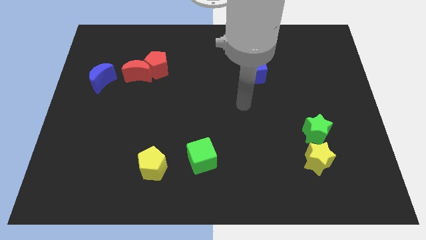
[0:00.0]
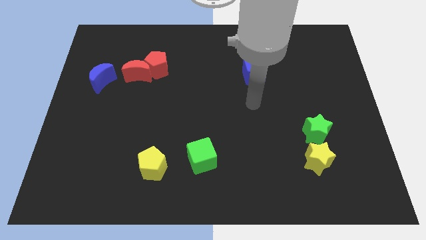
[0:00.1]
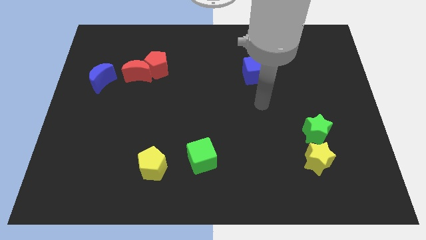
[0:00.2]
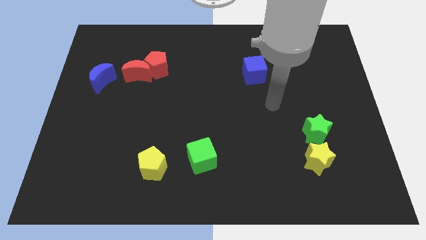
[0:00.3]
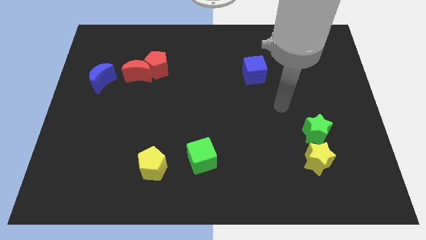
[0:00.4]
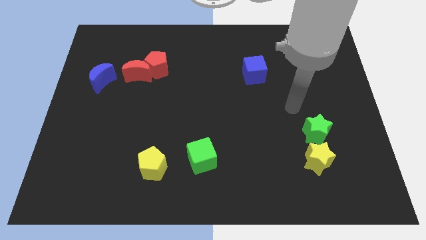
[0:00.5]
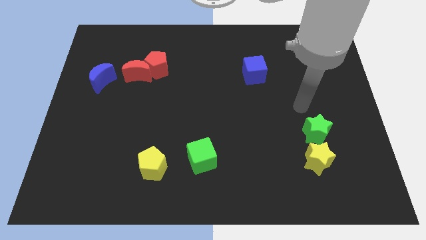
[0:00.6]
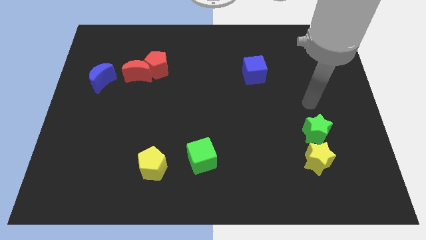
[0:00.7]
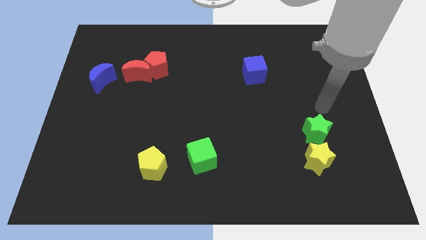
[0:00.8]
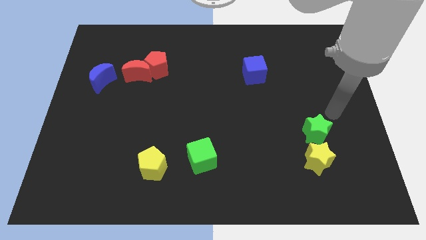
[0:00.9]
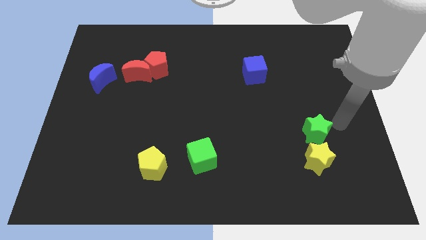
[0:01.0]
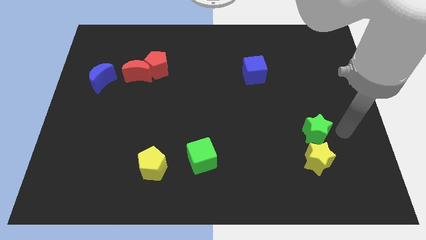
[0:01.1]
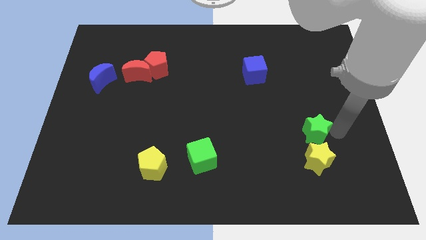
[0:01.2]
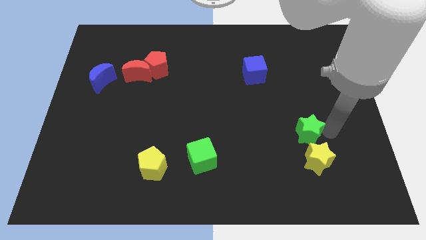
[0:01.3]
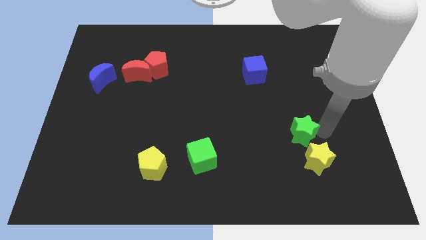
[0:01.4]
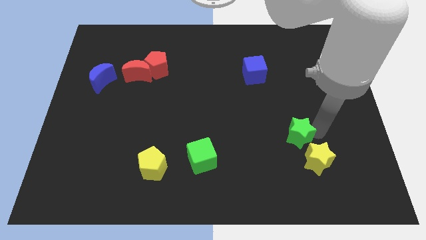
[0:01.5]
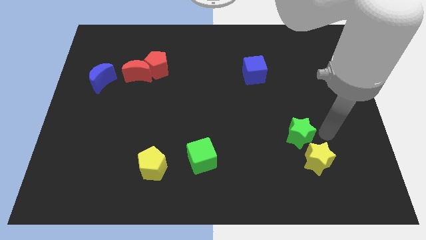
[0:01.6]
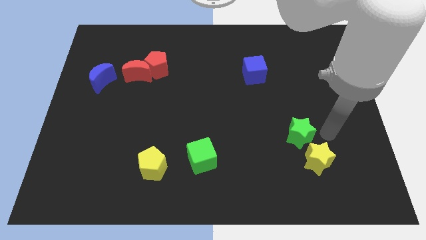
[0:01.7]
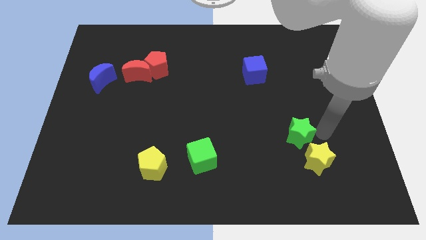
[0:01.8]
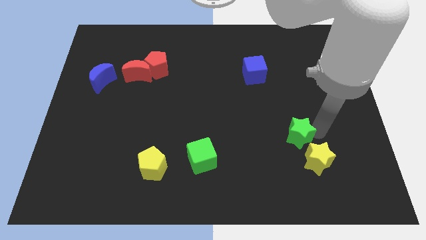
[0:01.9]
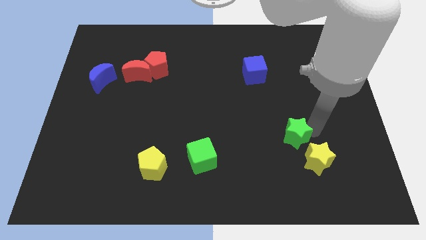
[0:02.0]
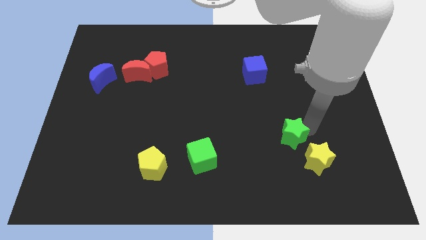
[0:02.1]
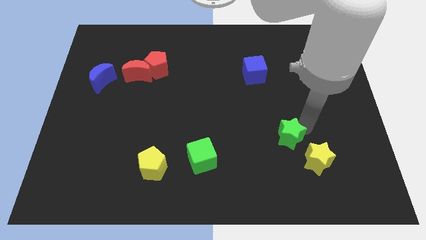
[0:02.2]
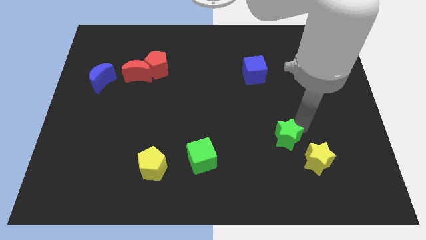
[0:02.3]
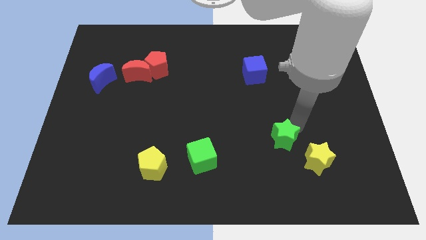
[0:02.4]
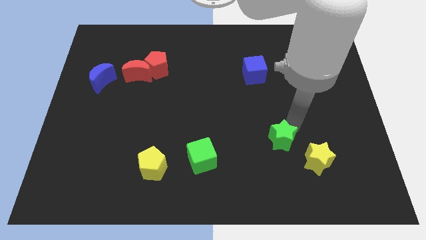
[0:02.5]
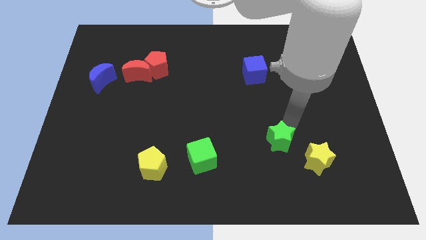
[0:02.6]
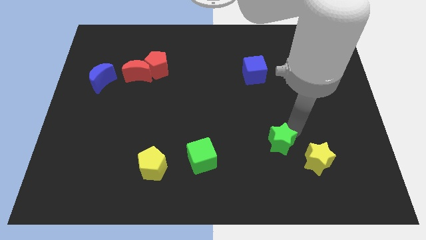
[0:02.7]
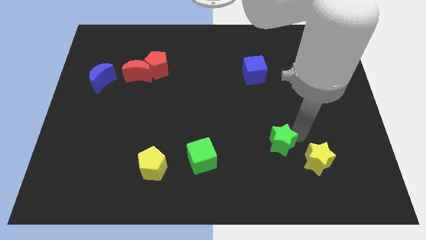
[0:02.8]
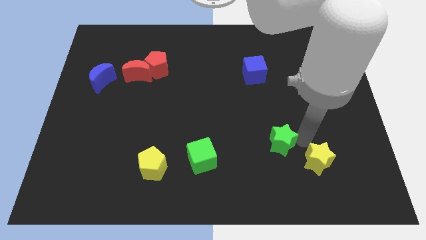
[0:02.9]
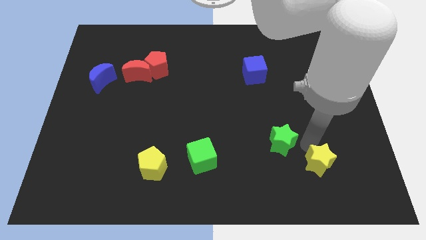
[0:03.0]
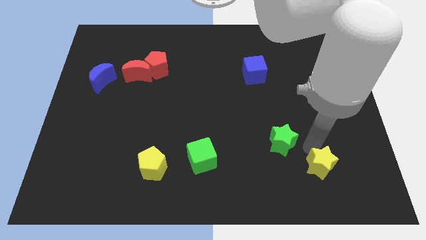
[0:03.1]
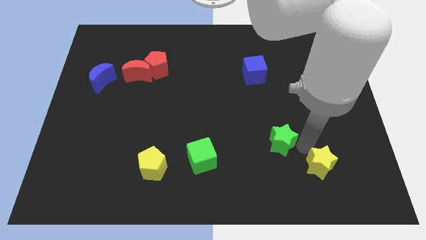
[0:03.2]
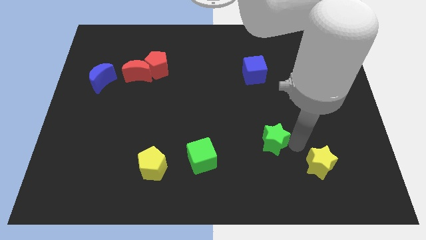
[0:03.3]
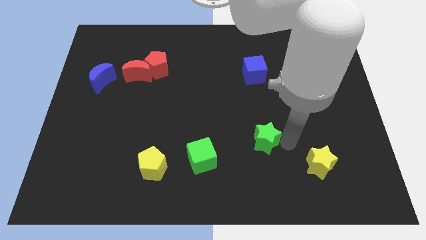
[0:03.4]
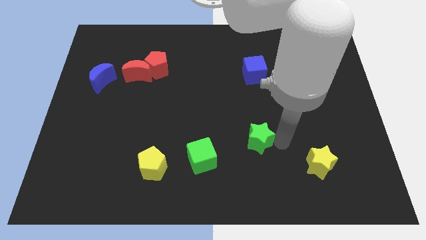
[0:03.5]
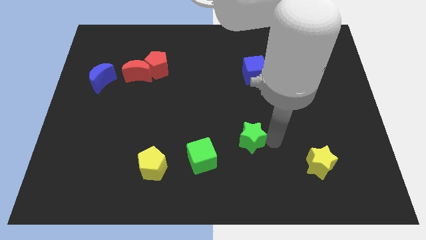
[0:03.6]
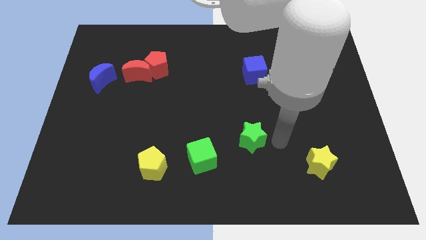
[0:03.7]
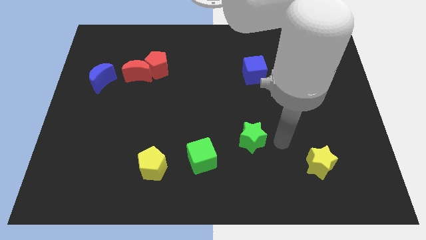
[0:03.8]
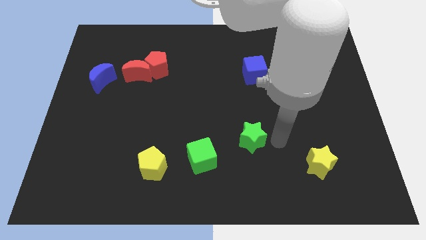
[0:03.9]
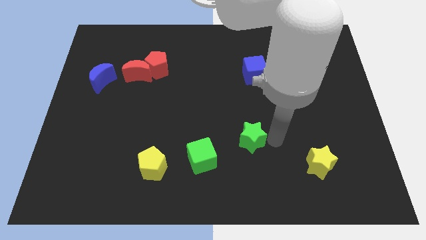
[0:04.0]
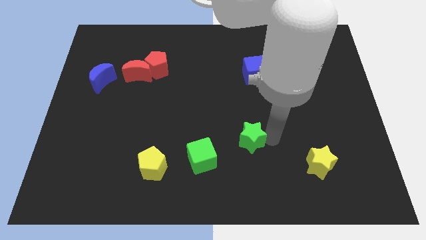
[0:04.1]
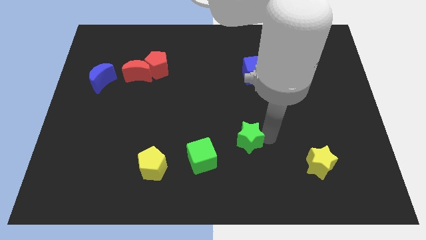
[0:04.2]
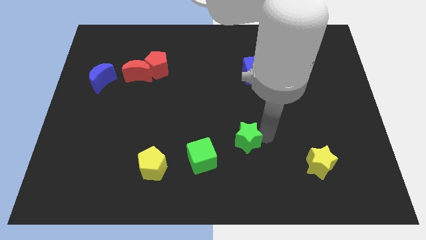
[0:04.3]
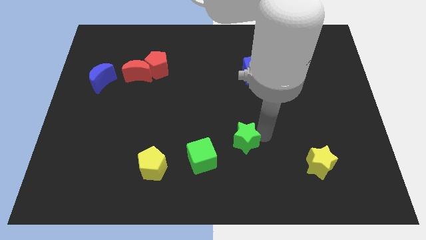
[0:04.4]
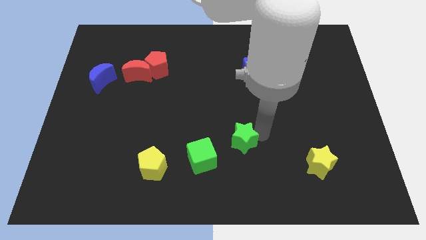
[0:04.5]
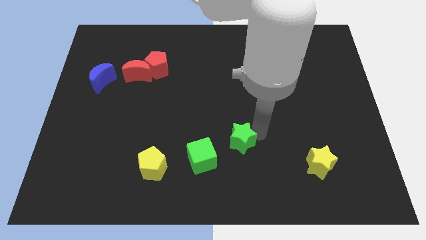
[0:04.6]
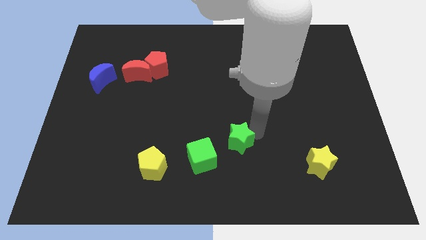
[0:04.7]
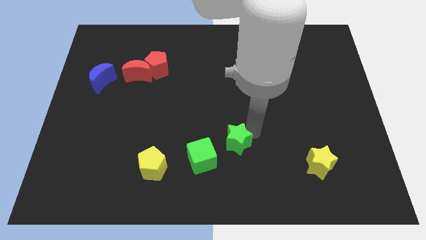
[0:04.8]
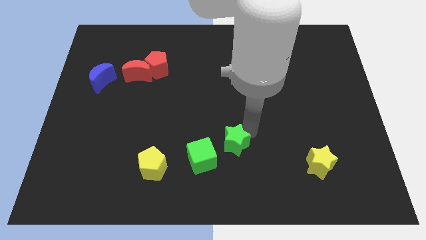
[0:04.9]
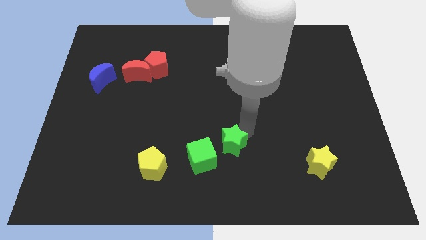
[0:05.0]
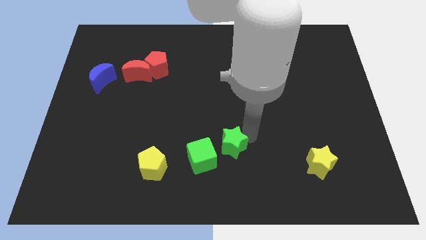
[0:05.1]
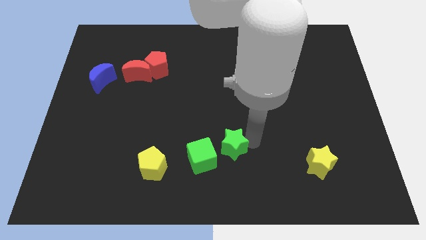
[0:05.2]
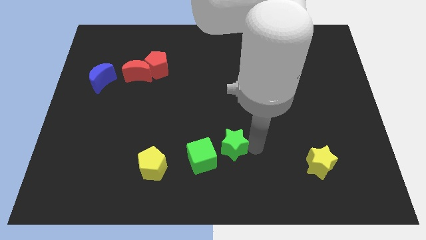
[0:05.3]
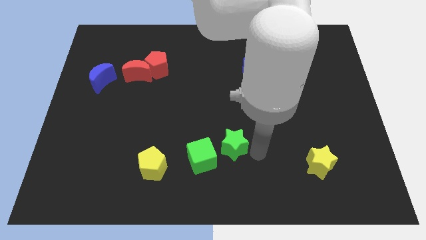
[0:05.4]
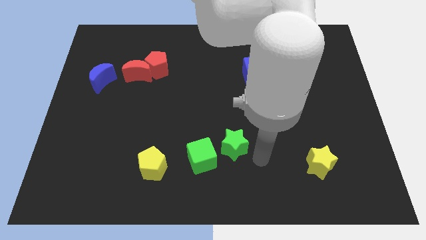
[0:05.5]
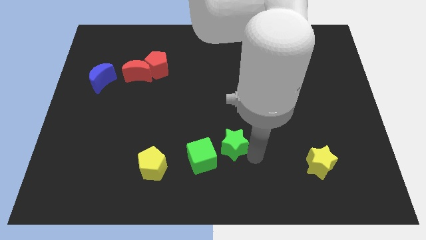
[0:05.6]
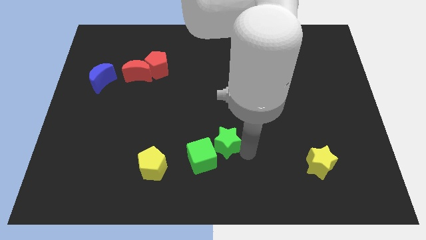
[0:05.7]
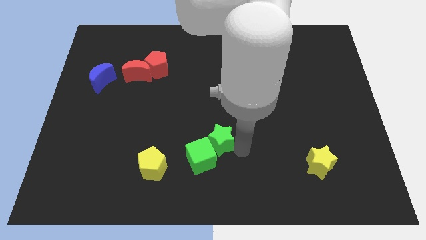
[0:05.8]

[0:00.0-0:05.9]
slide the green star left

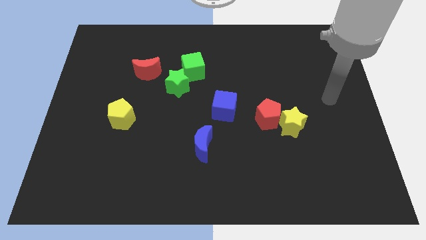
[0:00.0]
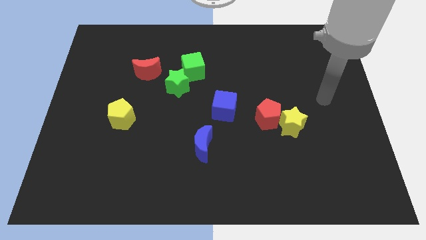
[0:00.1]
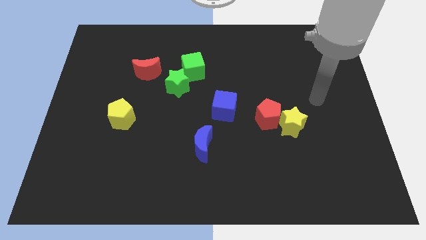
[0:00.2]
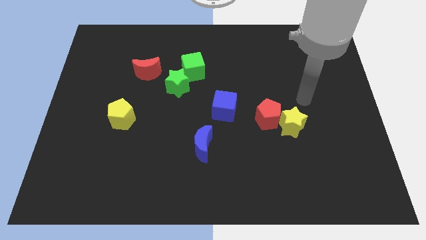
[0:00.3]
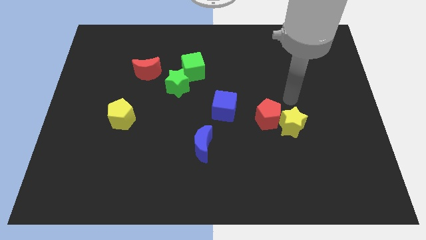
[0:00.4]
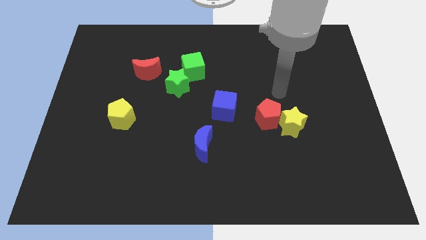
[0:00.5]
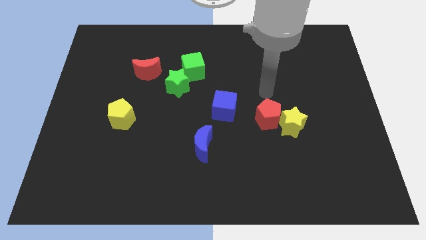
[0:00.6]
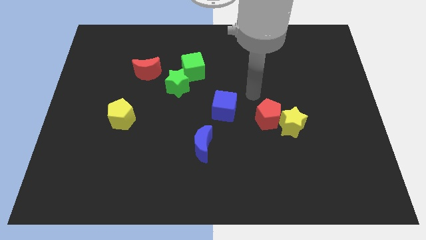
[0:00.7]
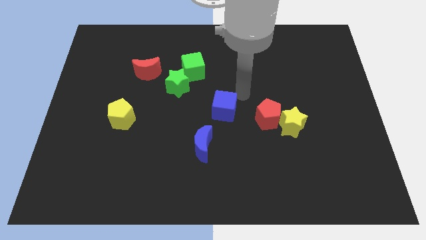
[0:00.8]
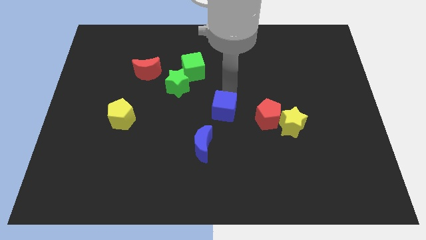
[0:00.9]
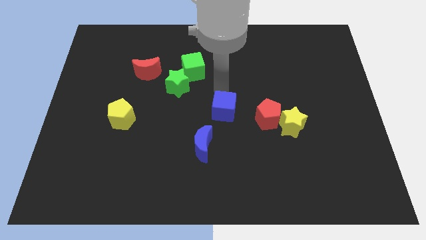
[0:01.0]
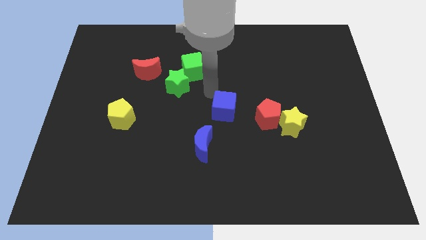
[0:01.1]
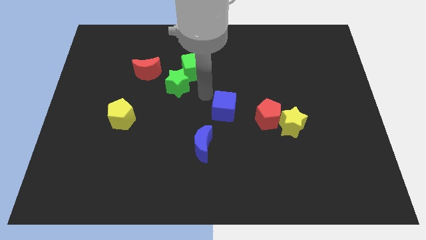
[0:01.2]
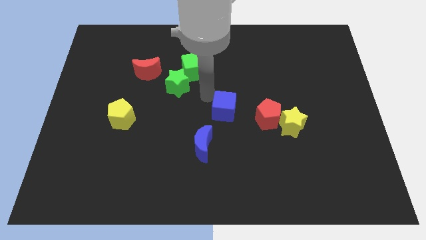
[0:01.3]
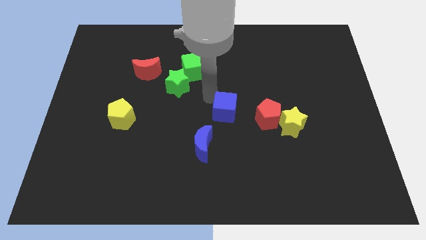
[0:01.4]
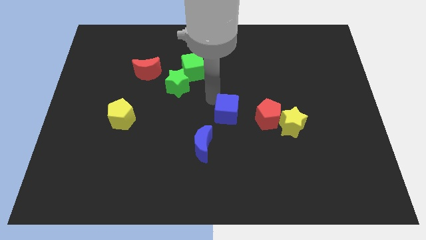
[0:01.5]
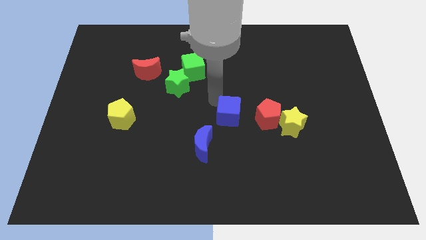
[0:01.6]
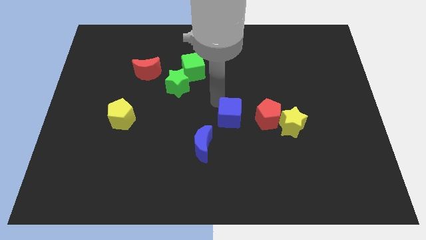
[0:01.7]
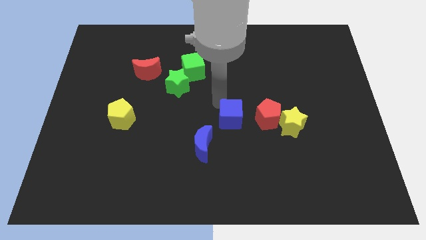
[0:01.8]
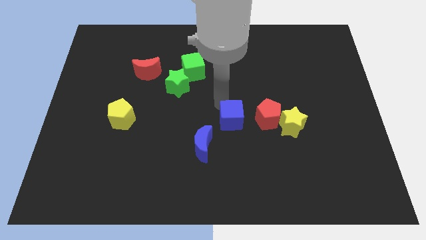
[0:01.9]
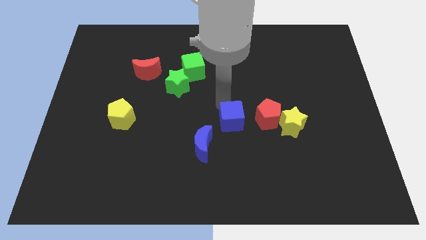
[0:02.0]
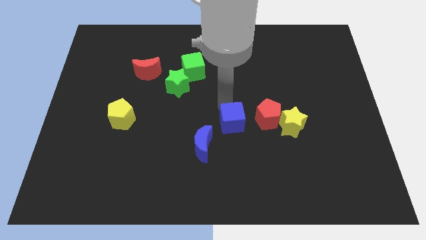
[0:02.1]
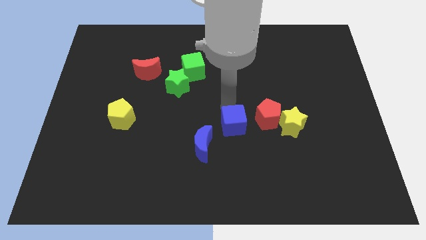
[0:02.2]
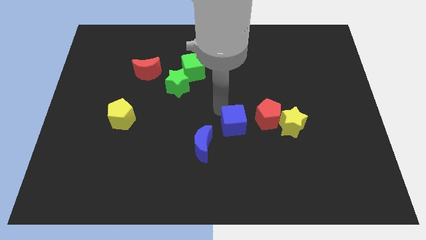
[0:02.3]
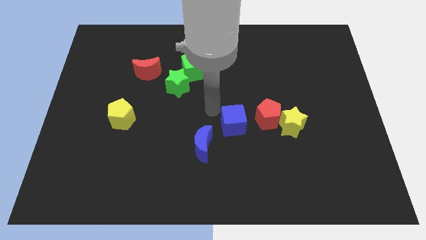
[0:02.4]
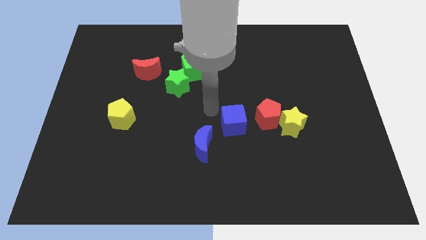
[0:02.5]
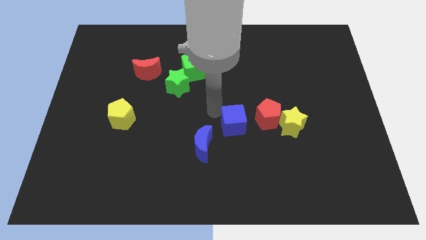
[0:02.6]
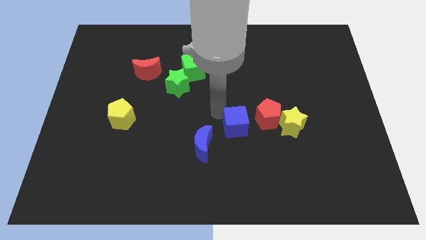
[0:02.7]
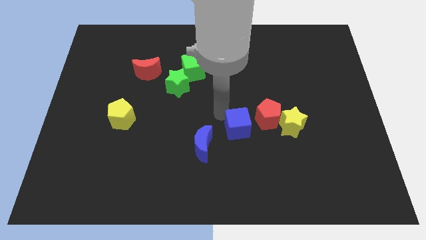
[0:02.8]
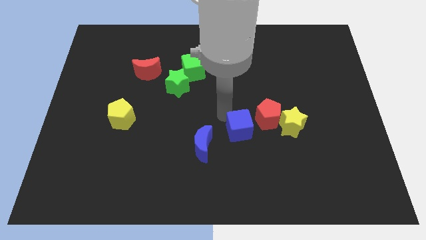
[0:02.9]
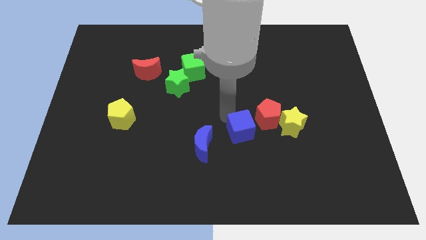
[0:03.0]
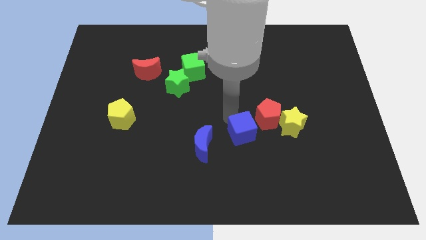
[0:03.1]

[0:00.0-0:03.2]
slightly slide the blue cube downwards and to the right
